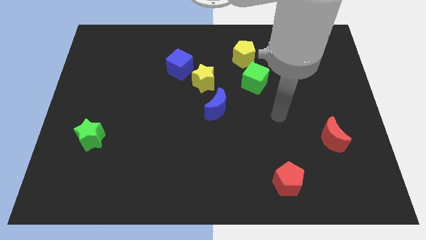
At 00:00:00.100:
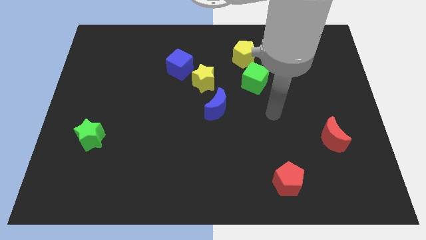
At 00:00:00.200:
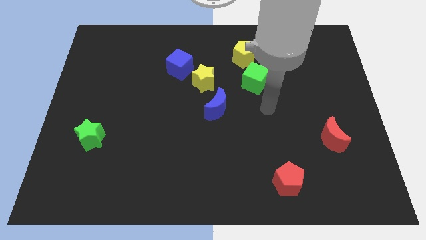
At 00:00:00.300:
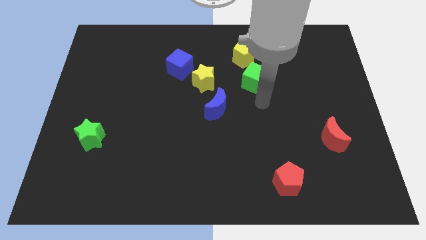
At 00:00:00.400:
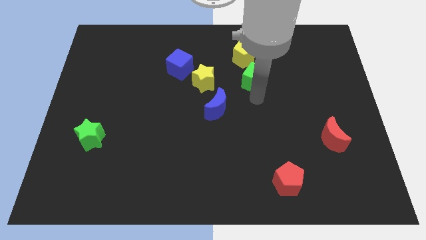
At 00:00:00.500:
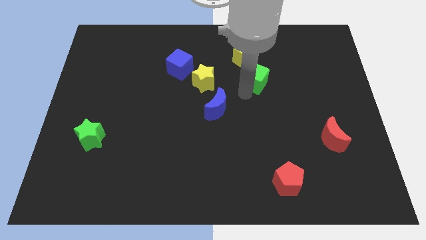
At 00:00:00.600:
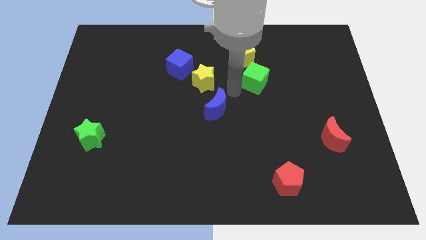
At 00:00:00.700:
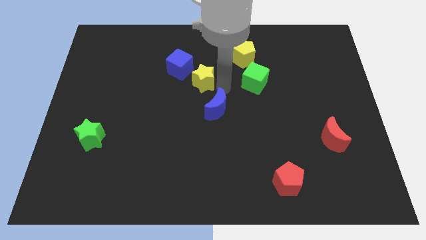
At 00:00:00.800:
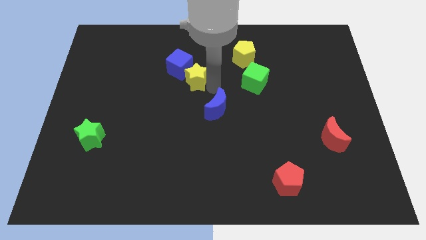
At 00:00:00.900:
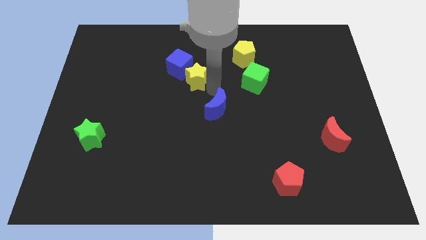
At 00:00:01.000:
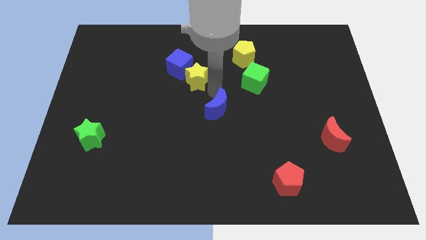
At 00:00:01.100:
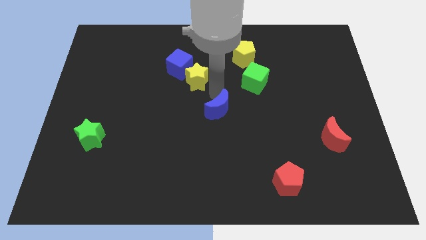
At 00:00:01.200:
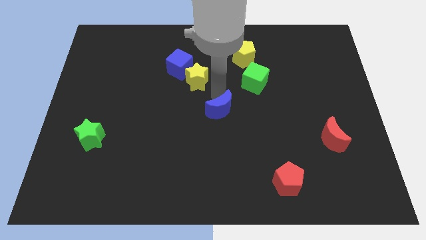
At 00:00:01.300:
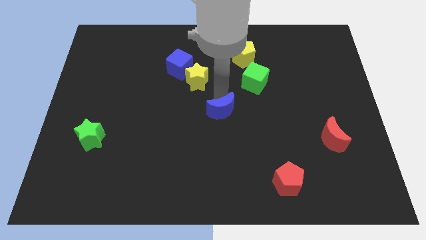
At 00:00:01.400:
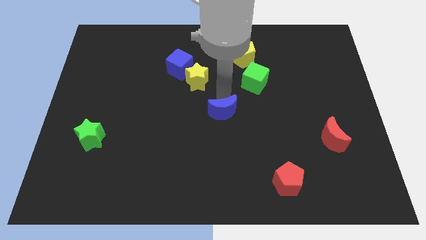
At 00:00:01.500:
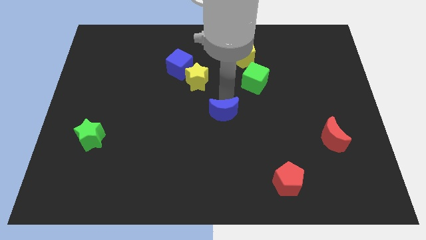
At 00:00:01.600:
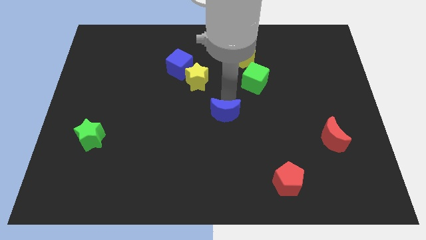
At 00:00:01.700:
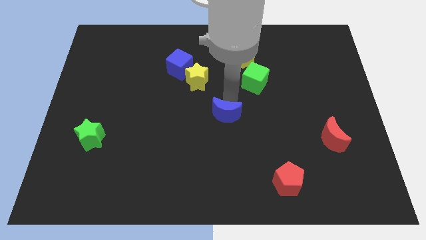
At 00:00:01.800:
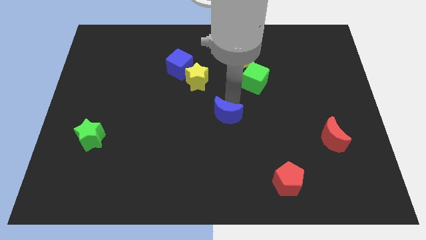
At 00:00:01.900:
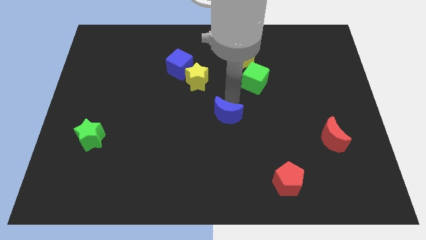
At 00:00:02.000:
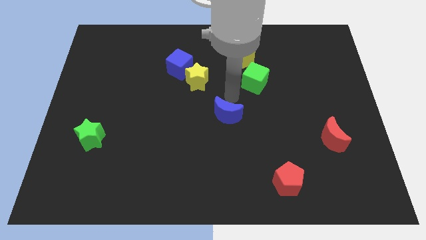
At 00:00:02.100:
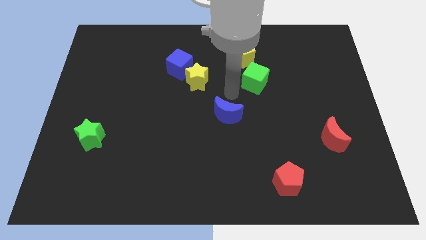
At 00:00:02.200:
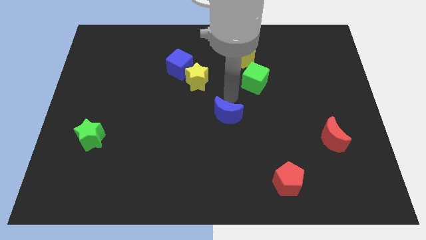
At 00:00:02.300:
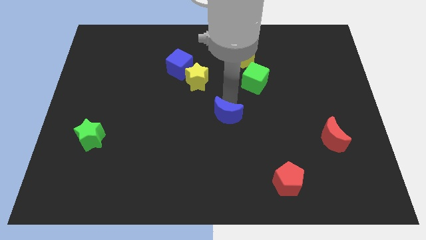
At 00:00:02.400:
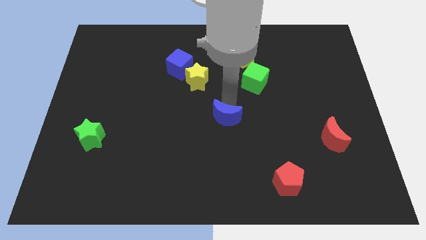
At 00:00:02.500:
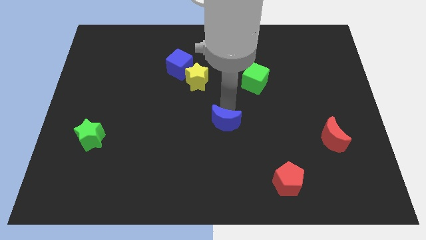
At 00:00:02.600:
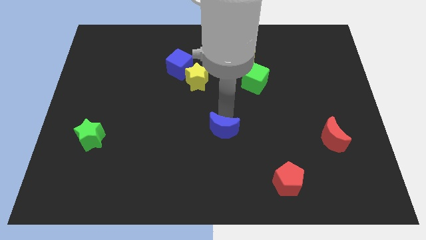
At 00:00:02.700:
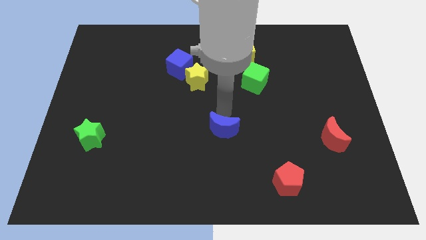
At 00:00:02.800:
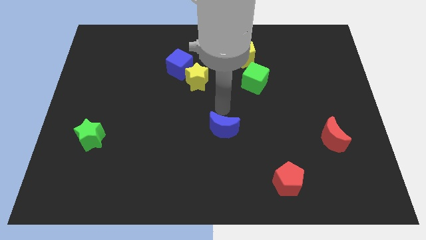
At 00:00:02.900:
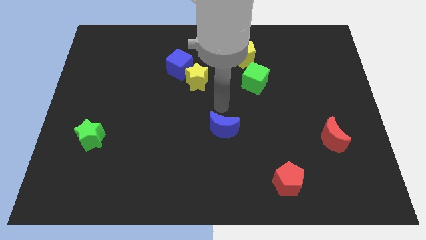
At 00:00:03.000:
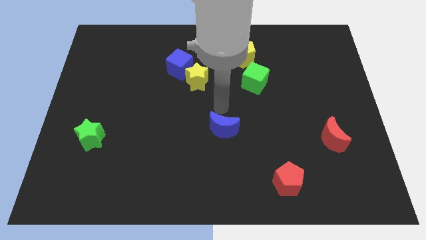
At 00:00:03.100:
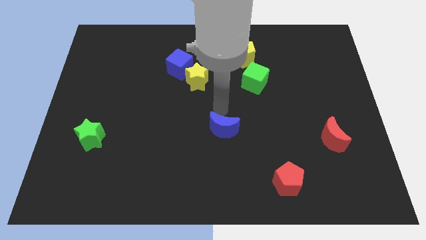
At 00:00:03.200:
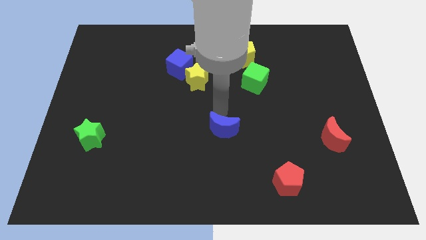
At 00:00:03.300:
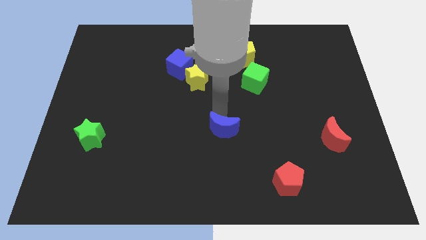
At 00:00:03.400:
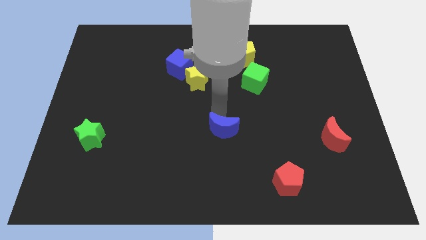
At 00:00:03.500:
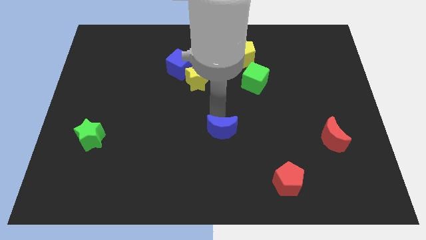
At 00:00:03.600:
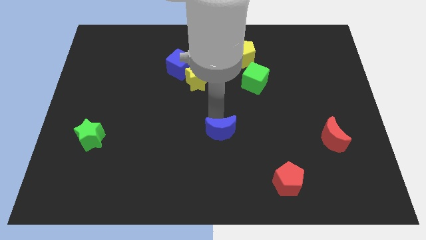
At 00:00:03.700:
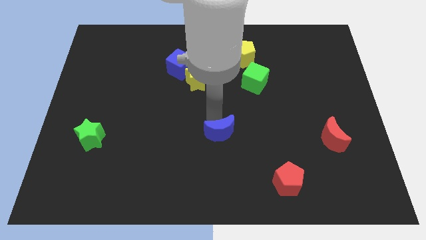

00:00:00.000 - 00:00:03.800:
push the blue moon somewhat down

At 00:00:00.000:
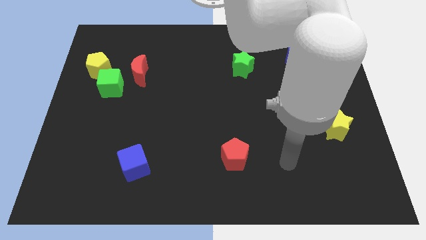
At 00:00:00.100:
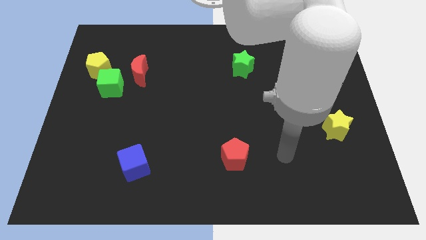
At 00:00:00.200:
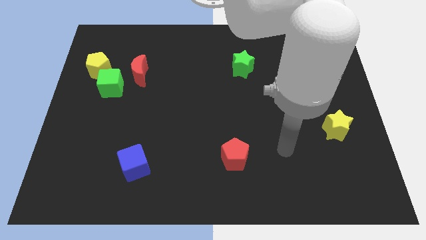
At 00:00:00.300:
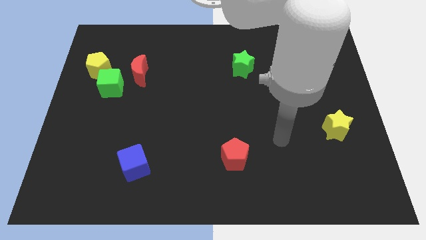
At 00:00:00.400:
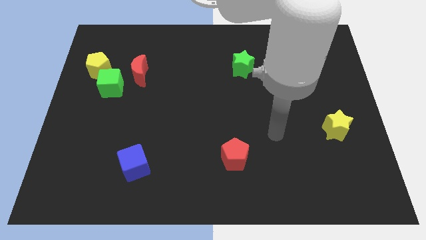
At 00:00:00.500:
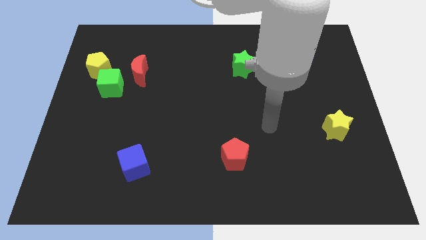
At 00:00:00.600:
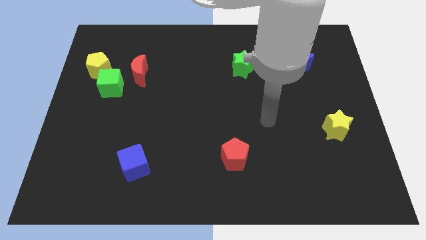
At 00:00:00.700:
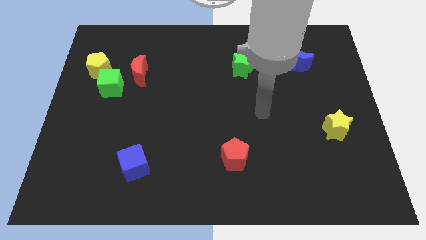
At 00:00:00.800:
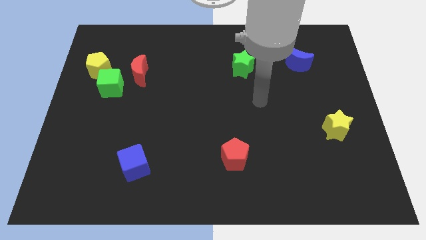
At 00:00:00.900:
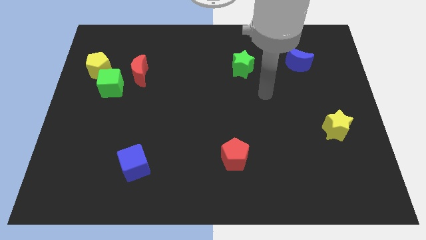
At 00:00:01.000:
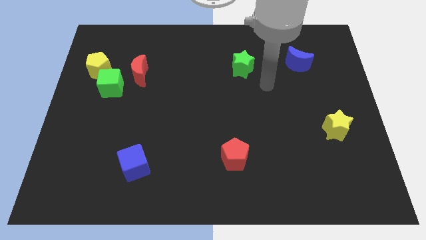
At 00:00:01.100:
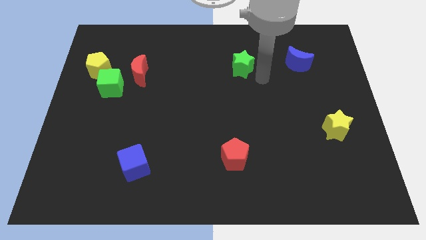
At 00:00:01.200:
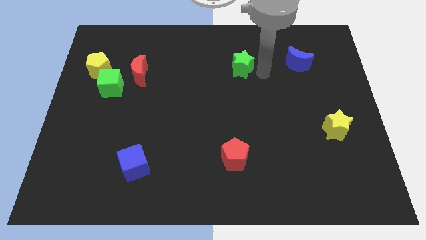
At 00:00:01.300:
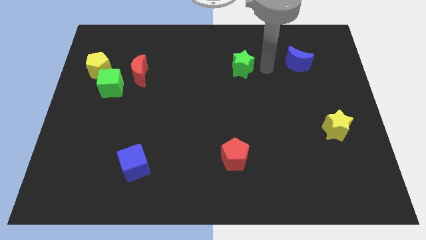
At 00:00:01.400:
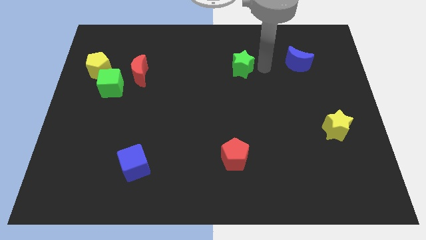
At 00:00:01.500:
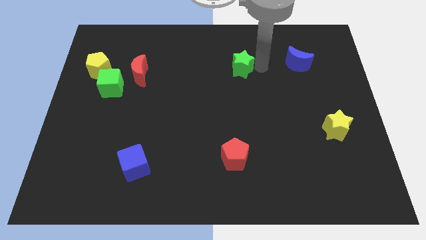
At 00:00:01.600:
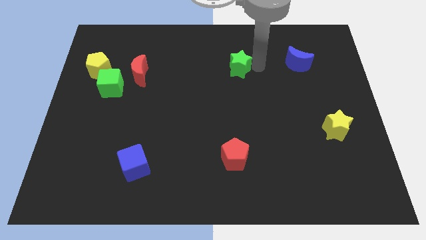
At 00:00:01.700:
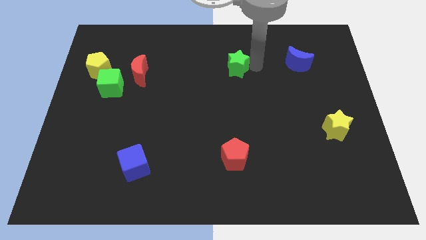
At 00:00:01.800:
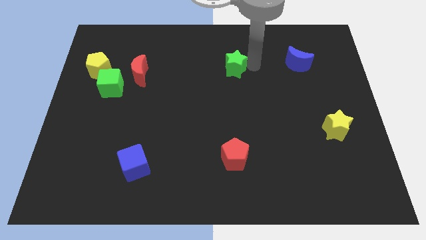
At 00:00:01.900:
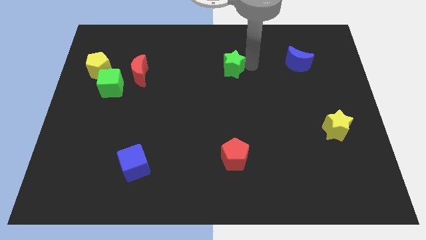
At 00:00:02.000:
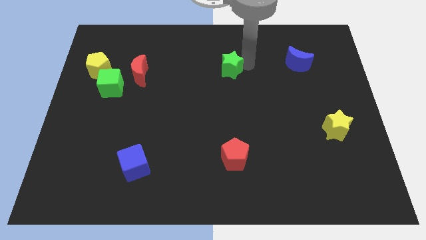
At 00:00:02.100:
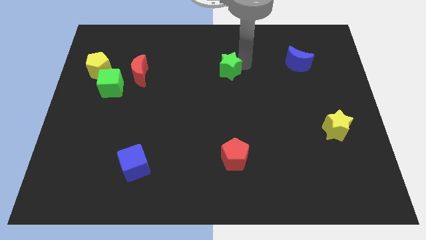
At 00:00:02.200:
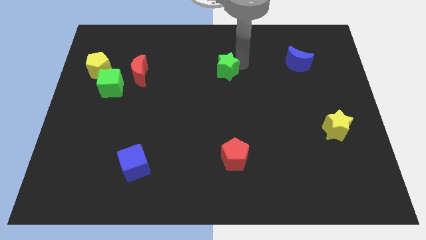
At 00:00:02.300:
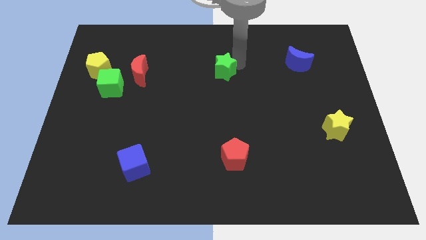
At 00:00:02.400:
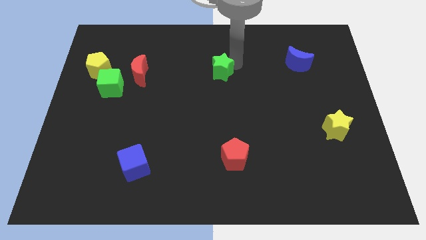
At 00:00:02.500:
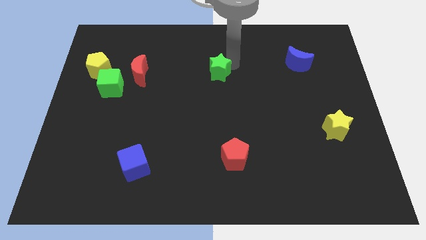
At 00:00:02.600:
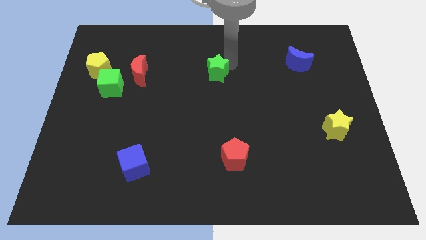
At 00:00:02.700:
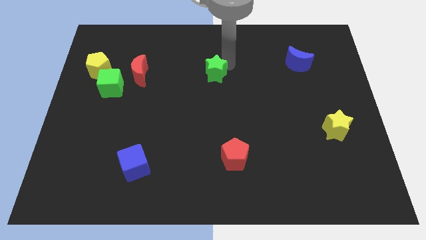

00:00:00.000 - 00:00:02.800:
slightly push the green star left

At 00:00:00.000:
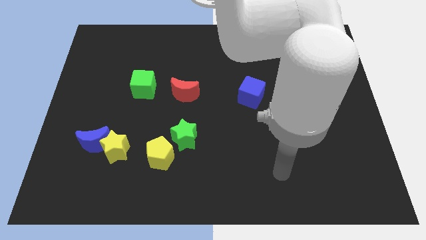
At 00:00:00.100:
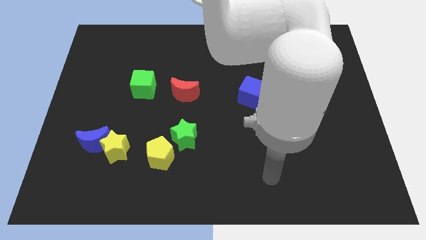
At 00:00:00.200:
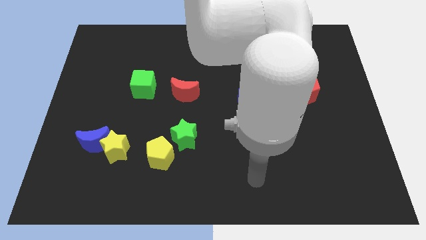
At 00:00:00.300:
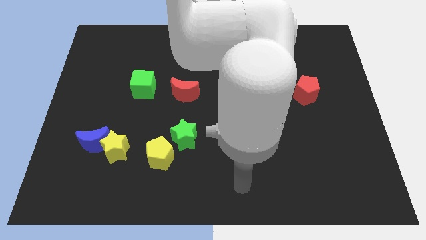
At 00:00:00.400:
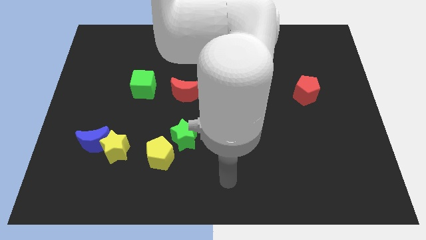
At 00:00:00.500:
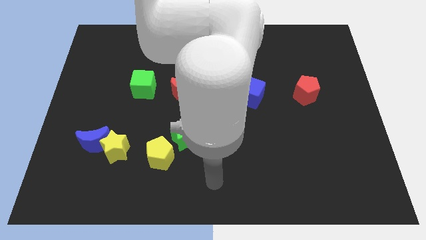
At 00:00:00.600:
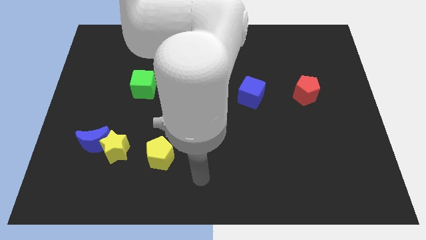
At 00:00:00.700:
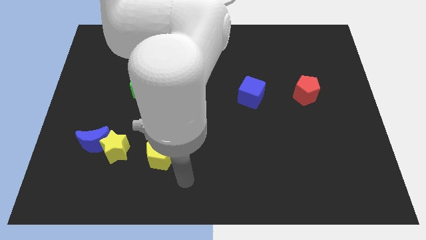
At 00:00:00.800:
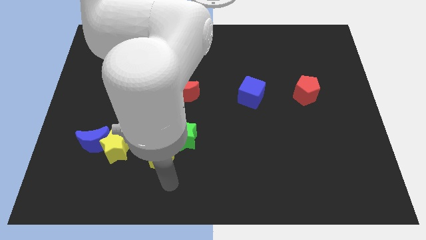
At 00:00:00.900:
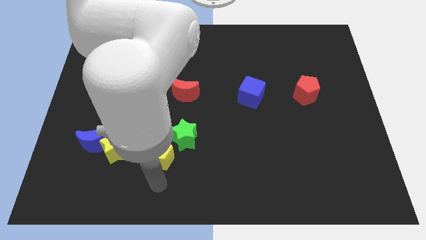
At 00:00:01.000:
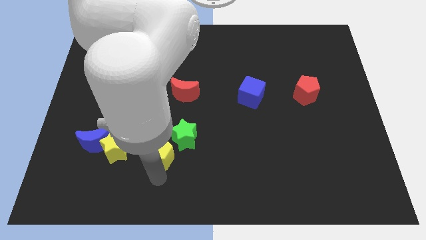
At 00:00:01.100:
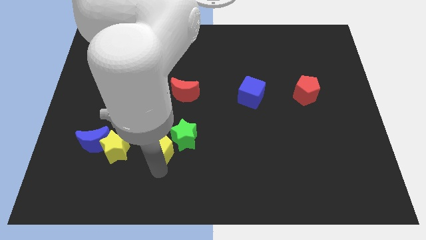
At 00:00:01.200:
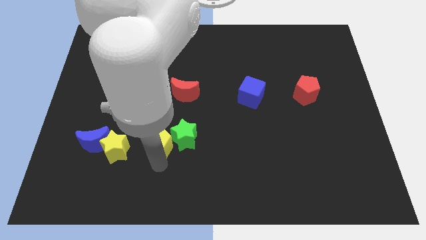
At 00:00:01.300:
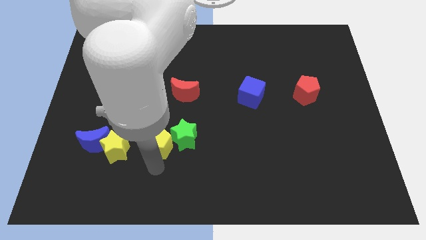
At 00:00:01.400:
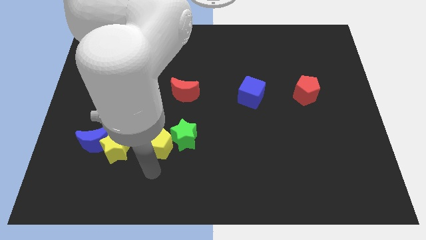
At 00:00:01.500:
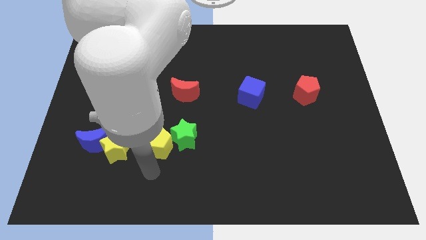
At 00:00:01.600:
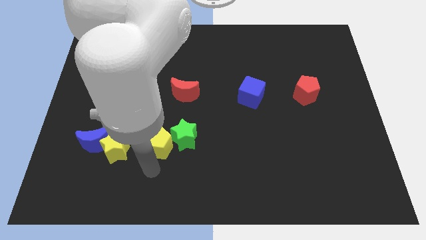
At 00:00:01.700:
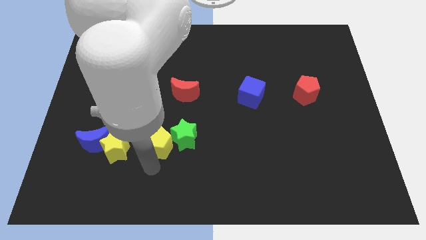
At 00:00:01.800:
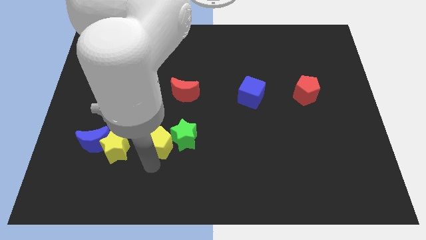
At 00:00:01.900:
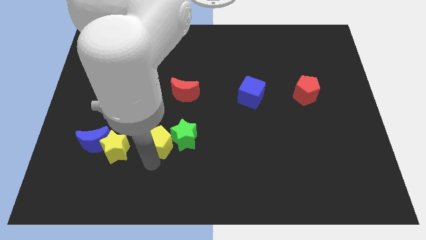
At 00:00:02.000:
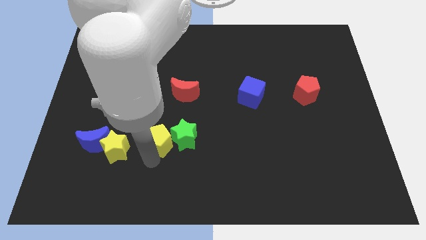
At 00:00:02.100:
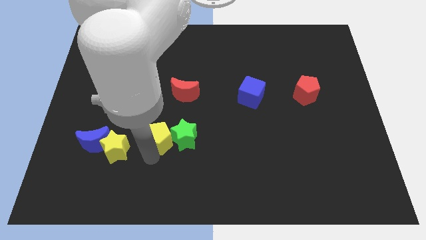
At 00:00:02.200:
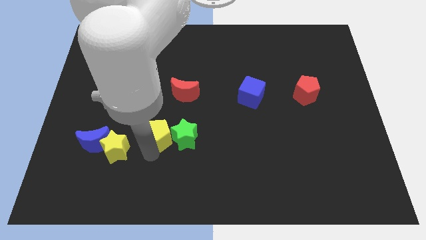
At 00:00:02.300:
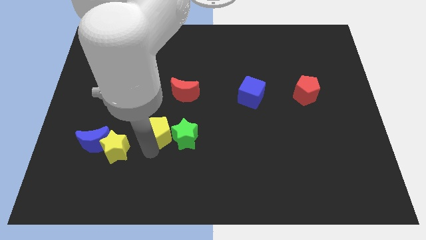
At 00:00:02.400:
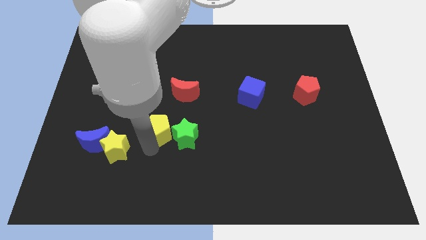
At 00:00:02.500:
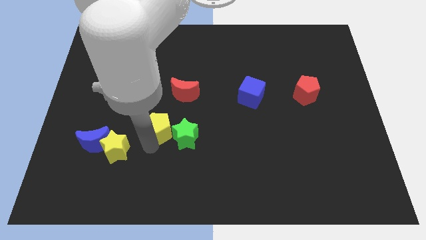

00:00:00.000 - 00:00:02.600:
move the yellow pentagon up a little bit
